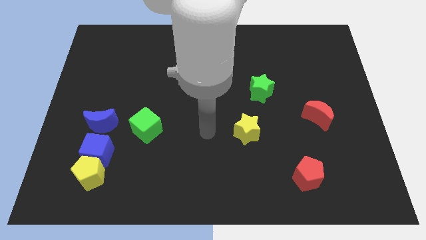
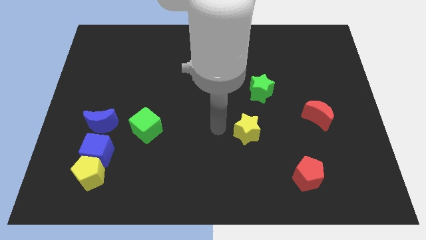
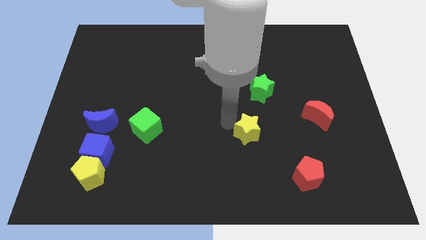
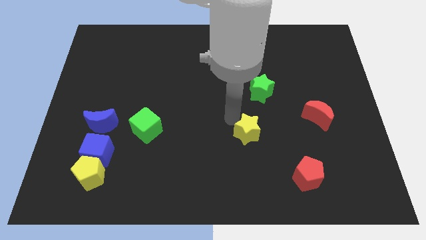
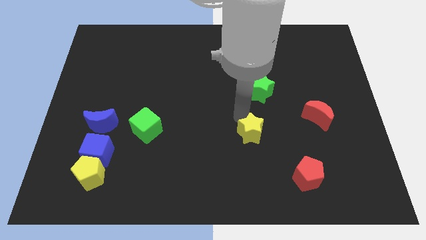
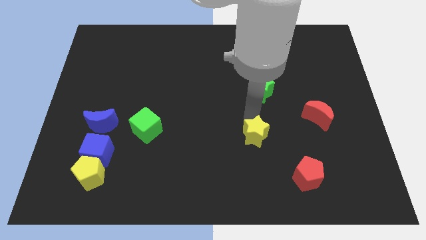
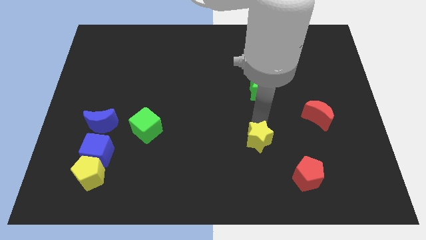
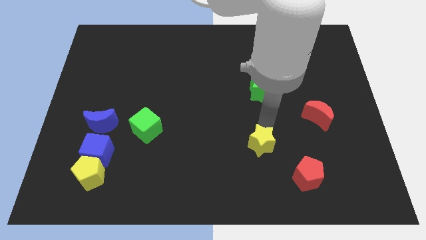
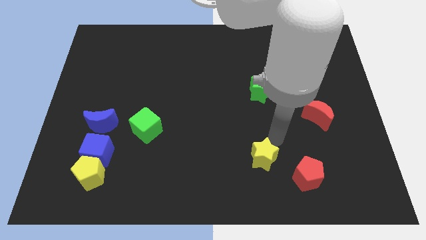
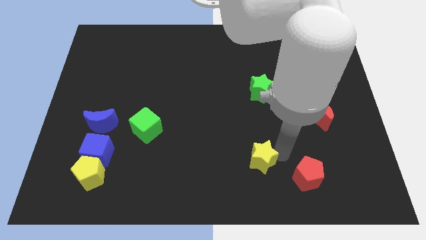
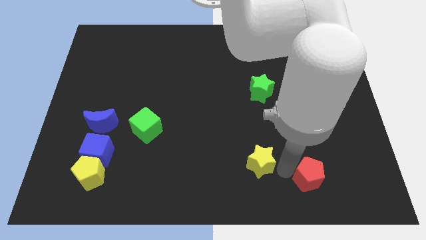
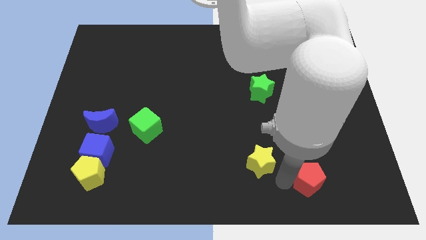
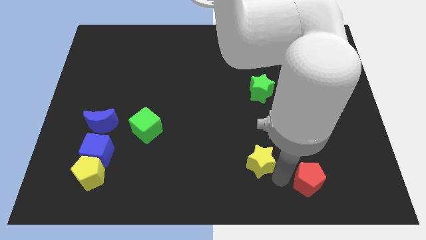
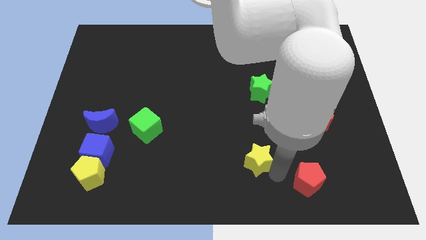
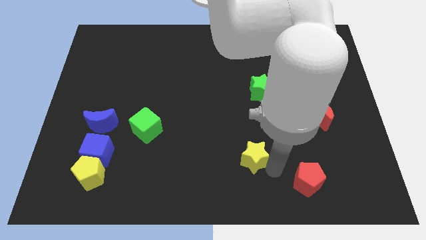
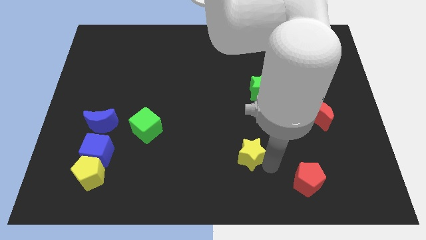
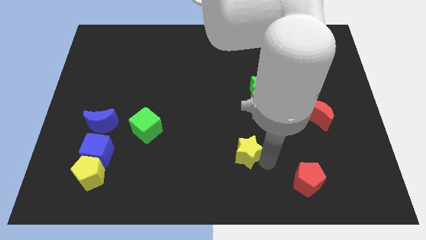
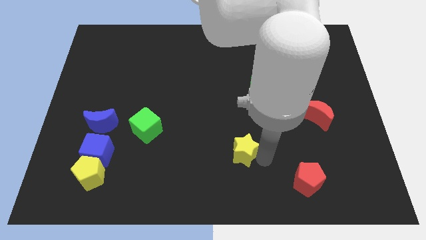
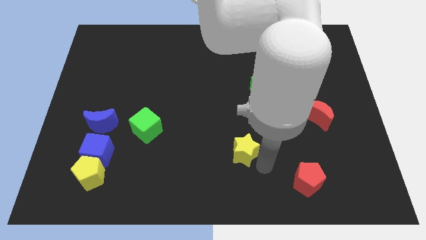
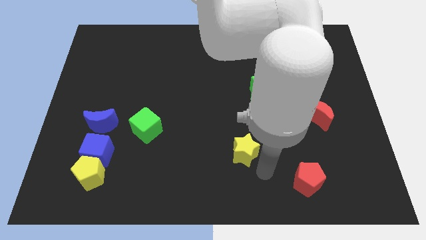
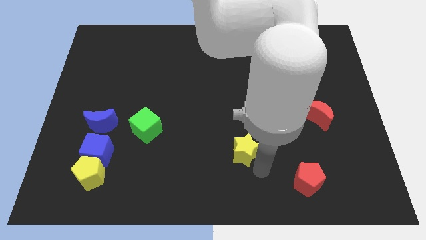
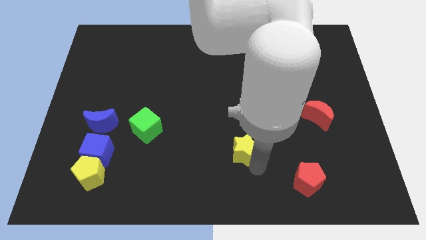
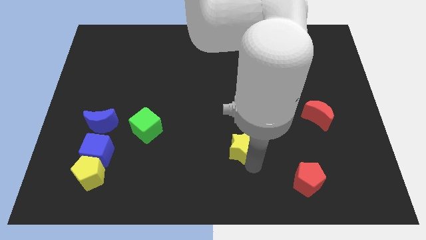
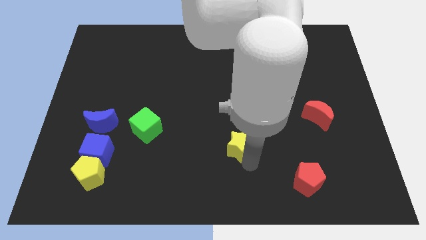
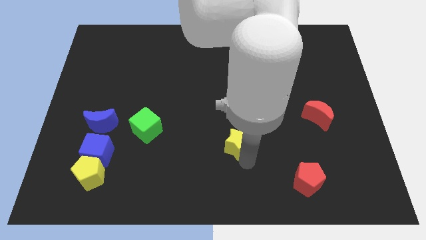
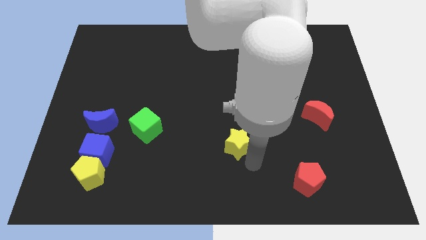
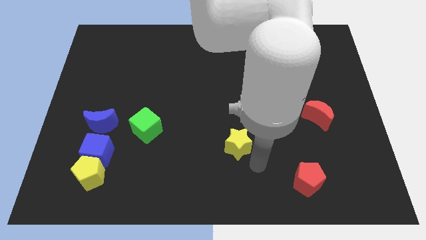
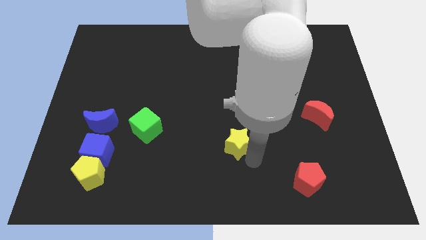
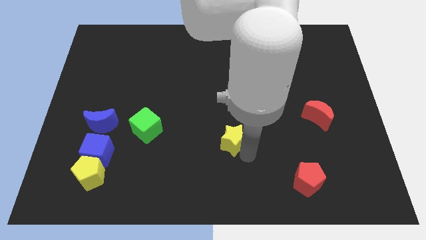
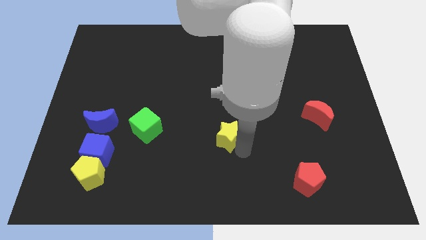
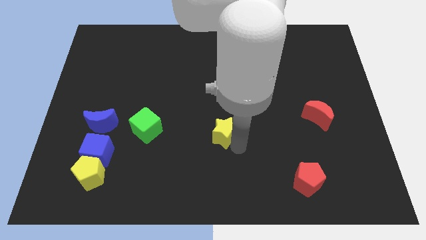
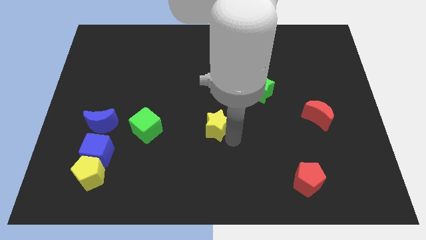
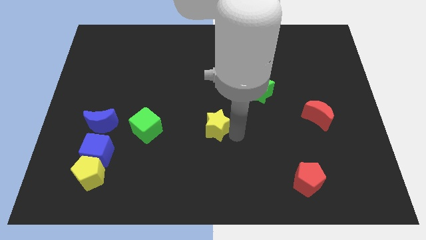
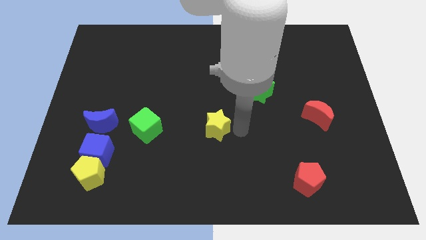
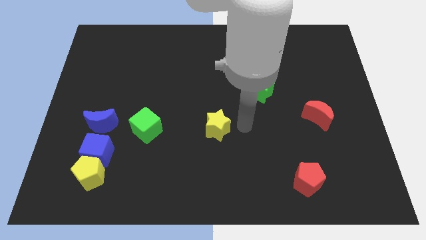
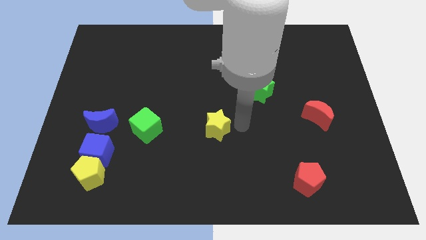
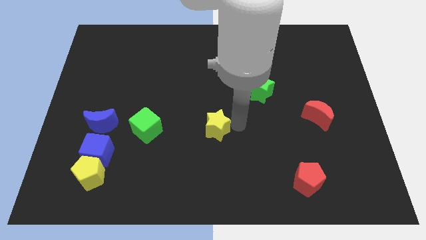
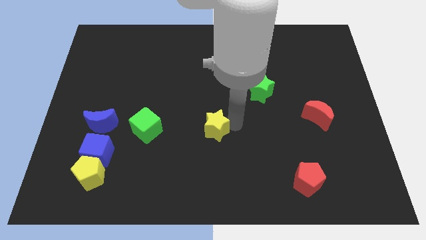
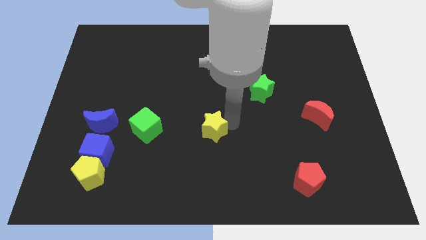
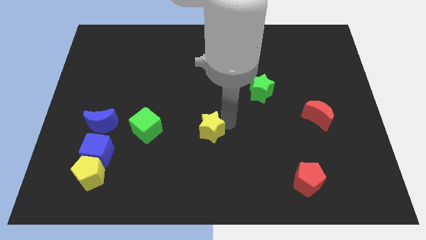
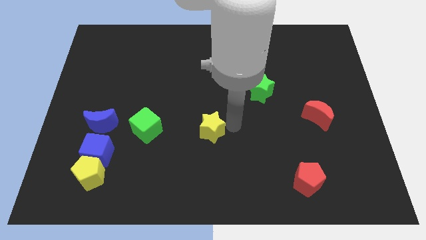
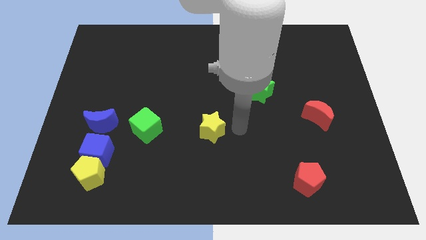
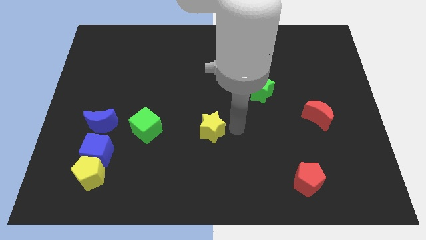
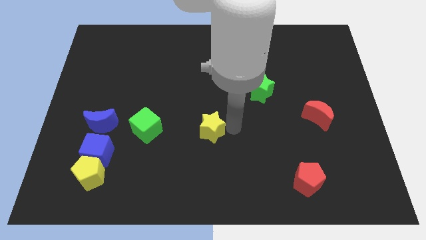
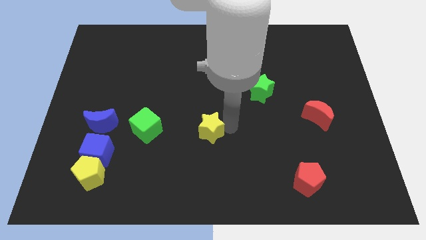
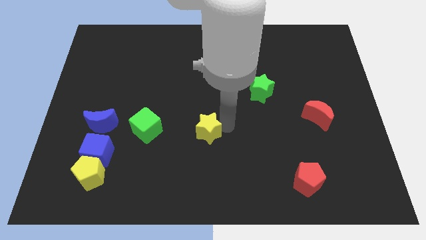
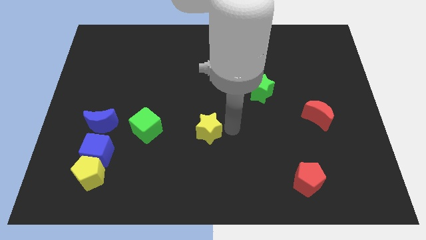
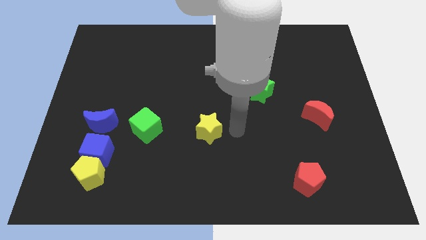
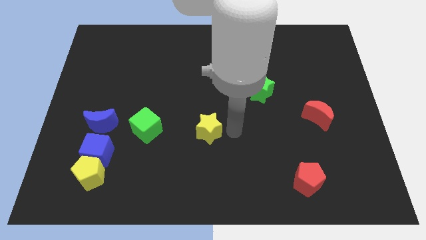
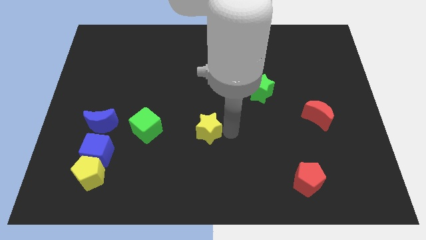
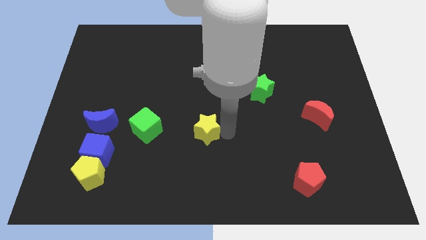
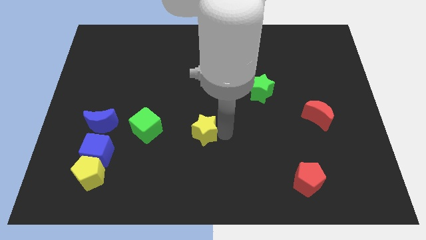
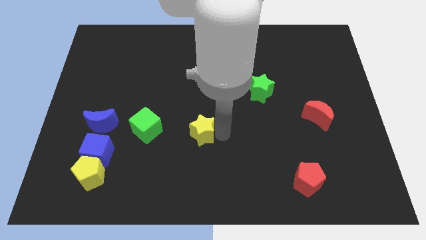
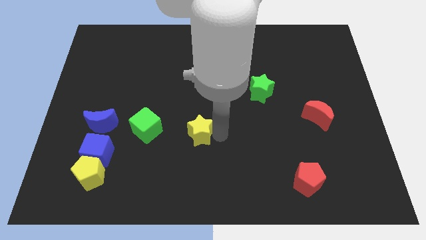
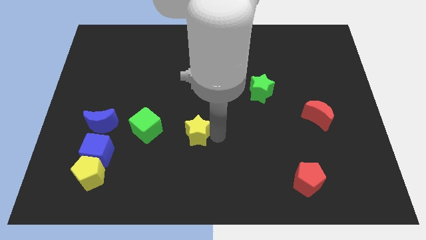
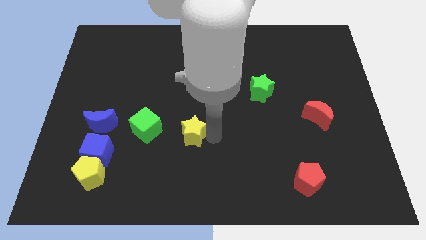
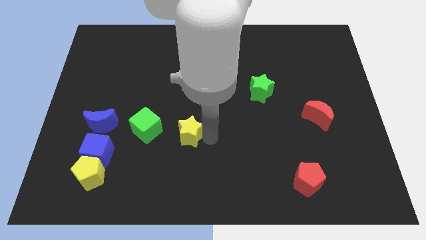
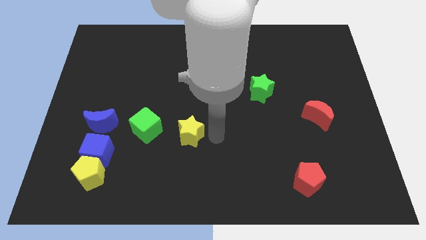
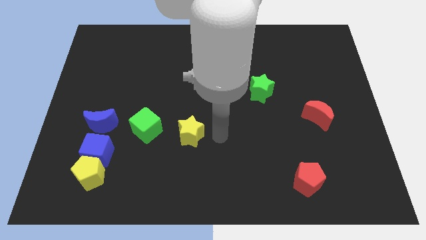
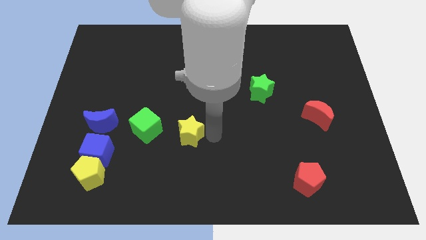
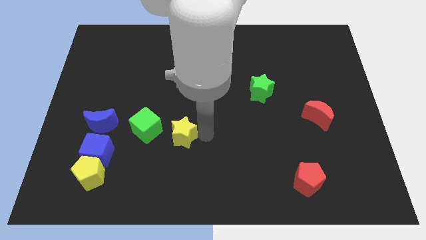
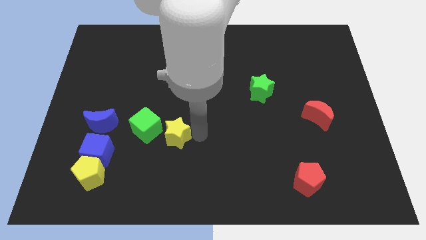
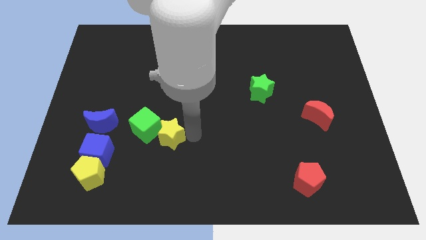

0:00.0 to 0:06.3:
push the yellow star to the green cube

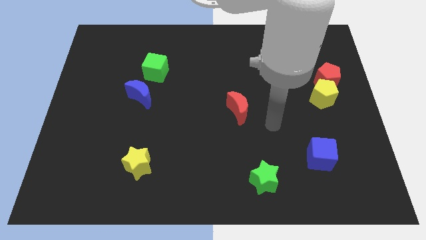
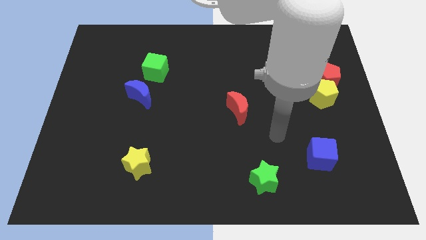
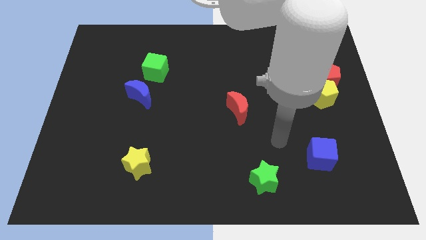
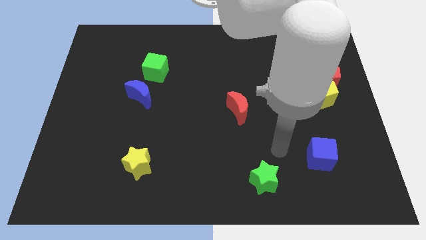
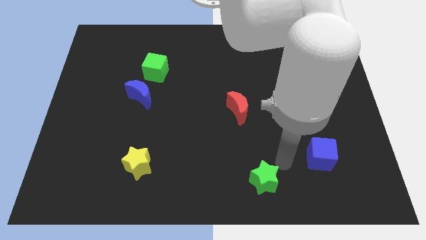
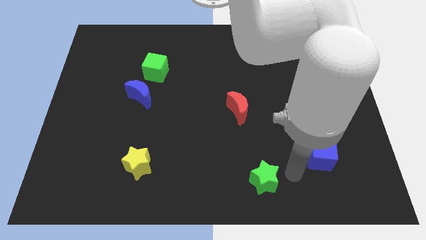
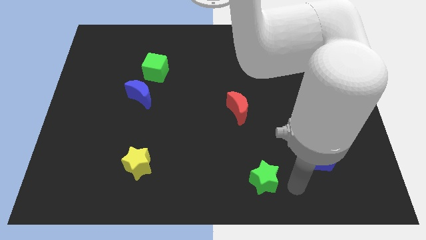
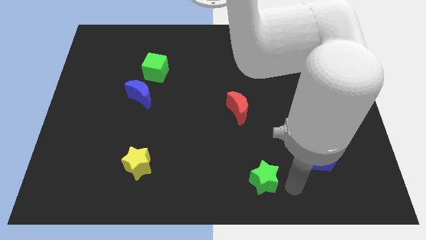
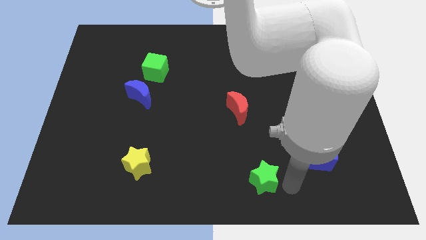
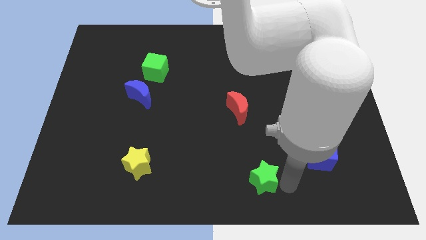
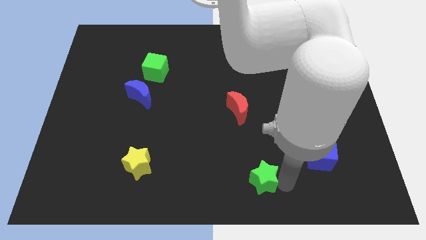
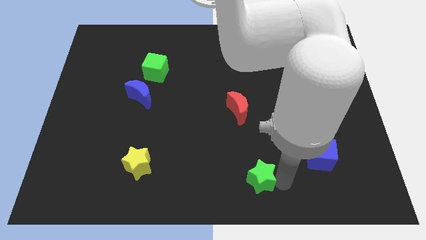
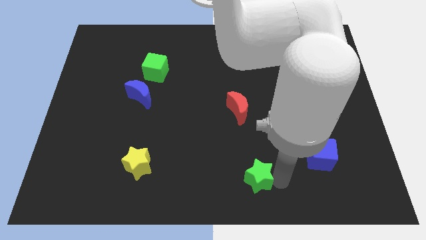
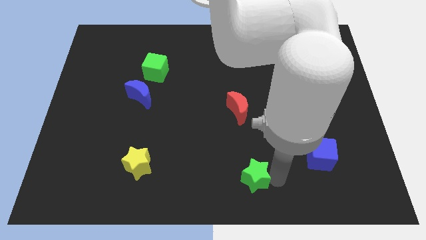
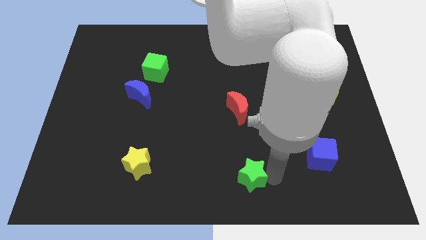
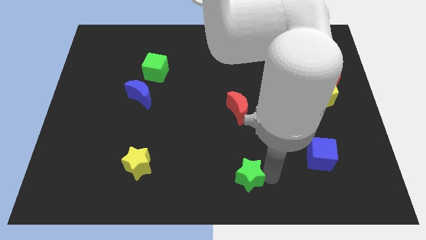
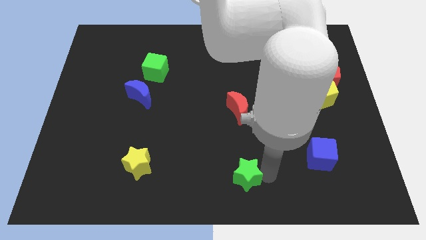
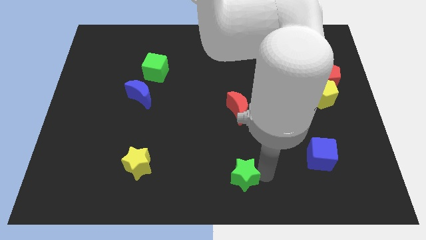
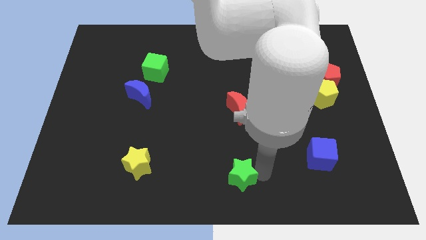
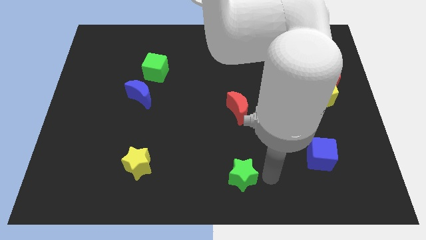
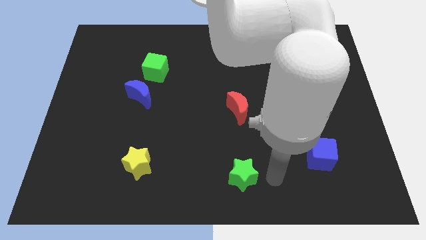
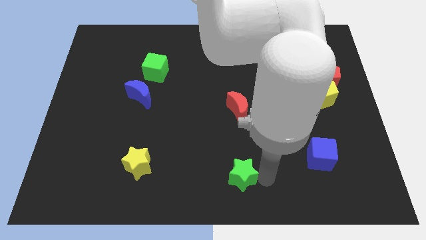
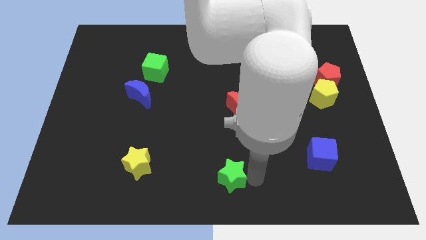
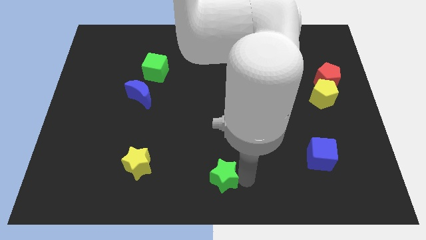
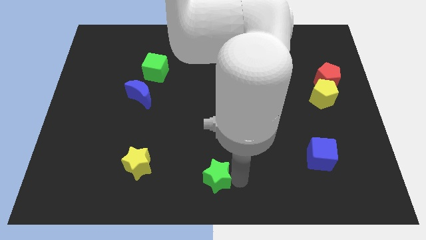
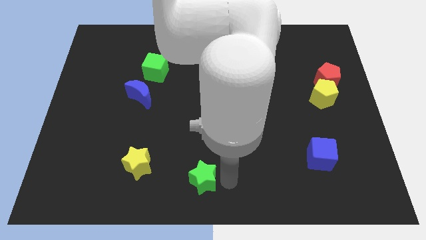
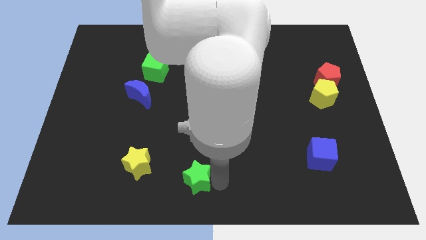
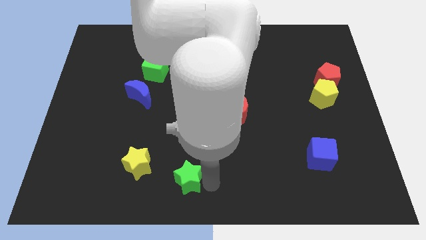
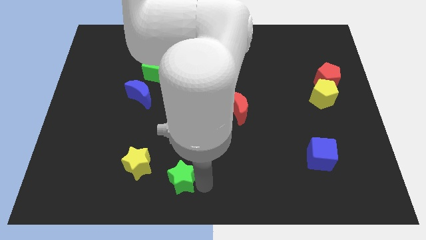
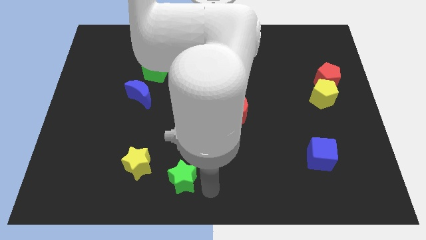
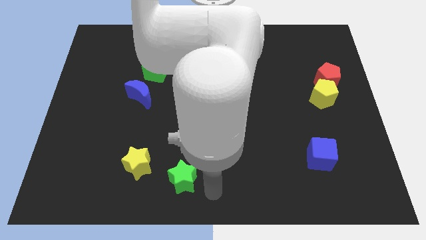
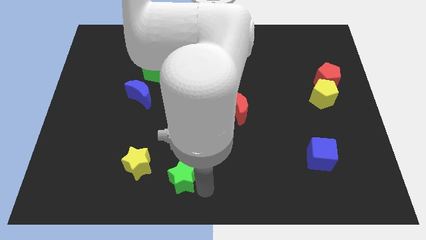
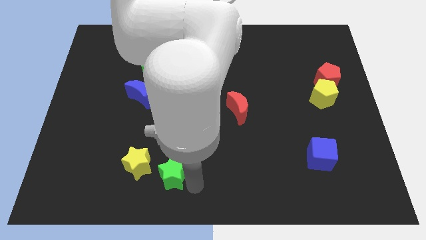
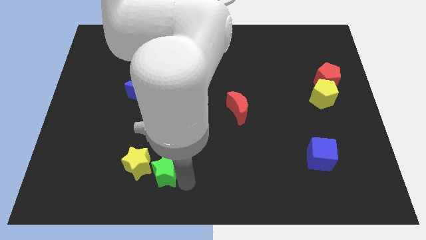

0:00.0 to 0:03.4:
put the green star next to the yellow star
